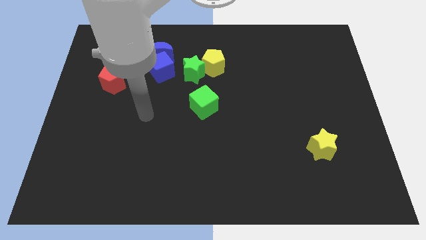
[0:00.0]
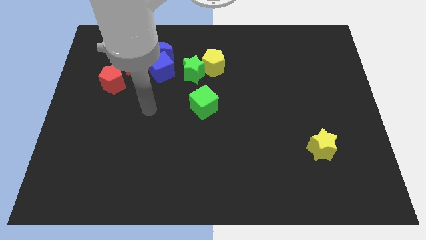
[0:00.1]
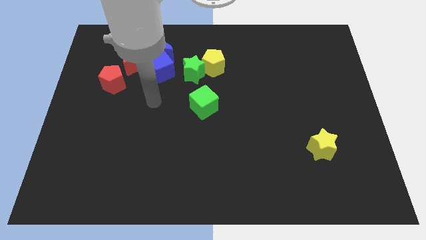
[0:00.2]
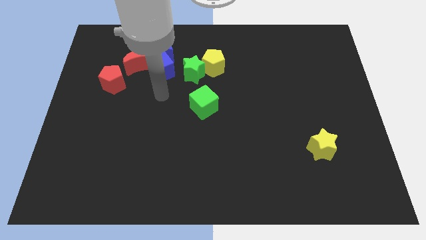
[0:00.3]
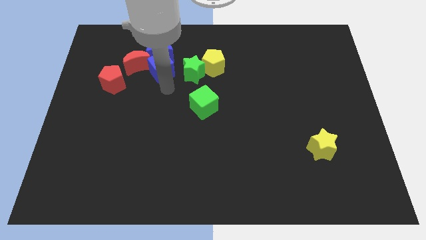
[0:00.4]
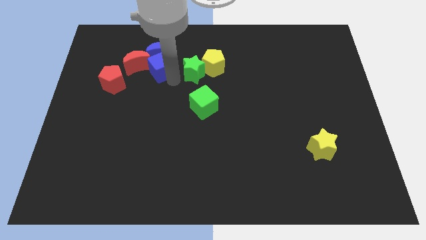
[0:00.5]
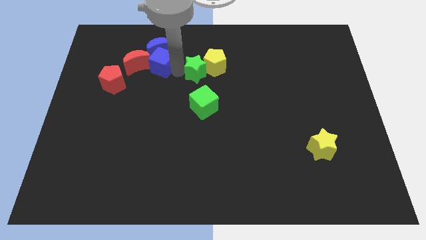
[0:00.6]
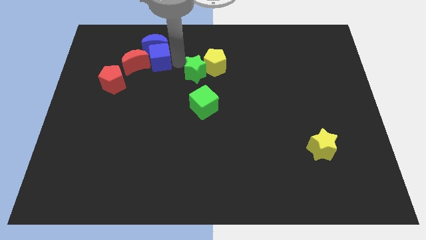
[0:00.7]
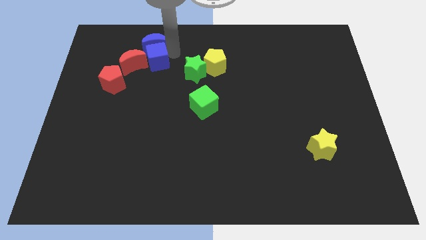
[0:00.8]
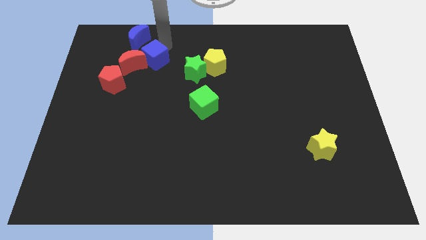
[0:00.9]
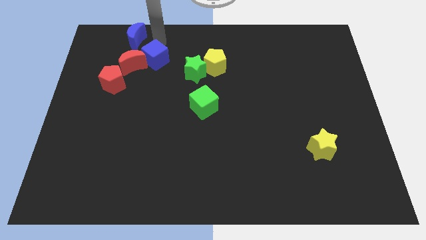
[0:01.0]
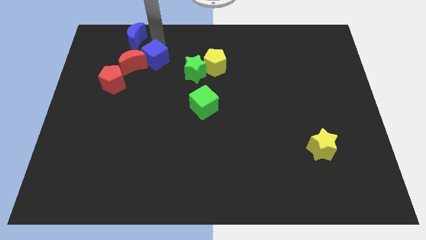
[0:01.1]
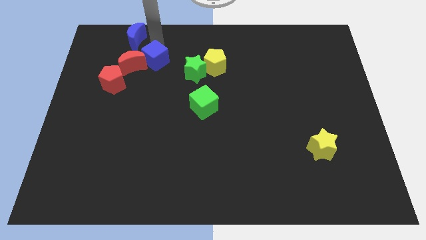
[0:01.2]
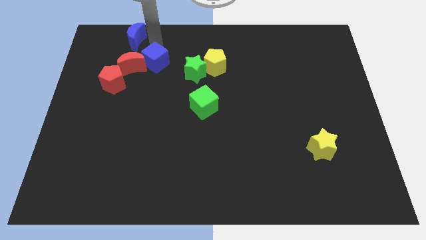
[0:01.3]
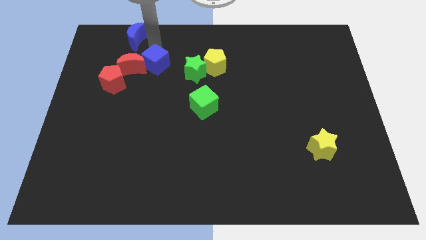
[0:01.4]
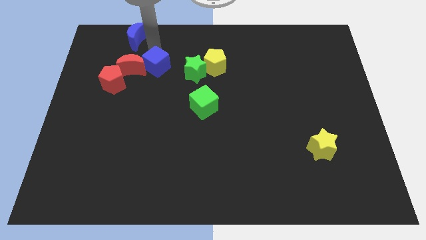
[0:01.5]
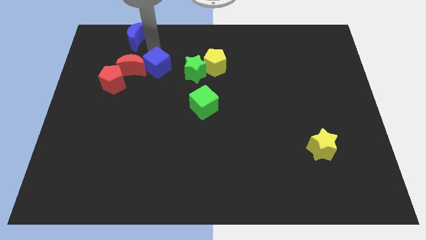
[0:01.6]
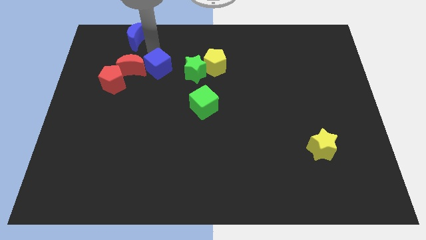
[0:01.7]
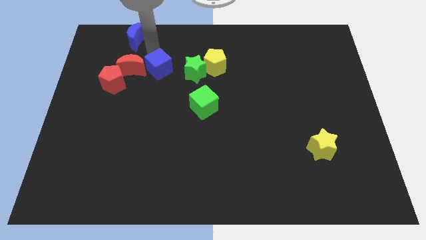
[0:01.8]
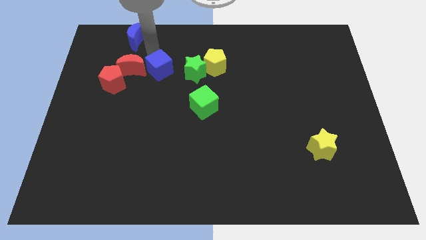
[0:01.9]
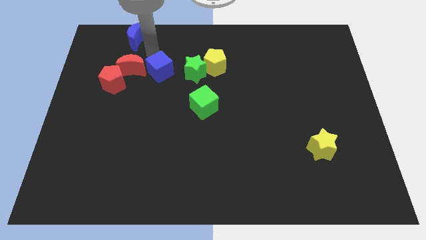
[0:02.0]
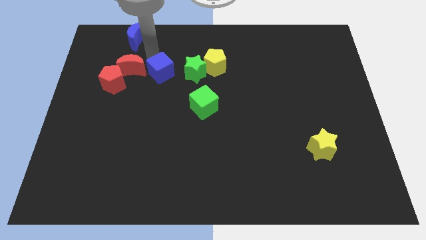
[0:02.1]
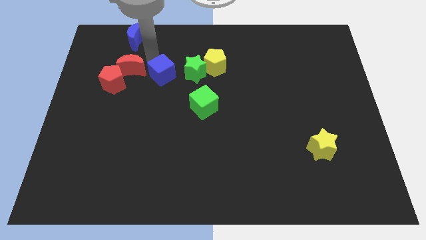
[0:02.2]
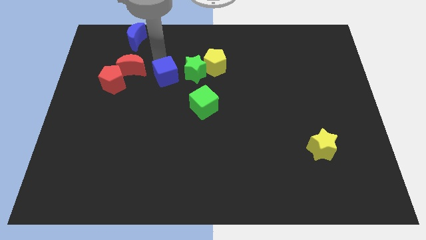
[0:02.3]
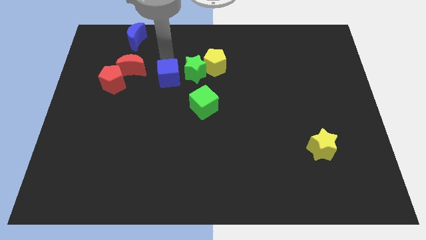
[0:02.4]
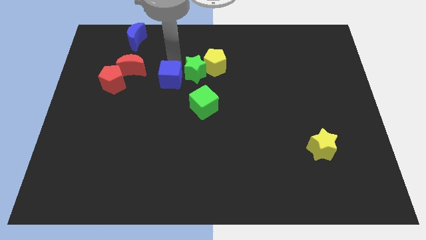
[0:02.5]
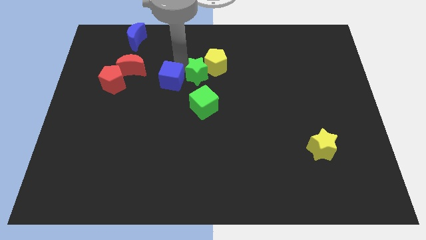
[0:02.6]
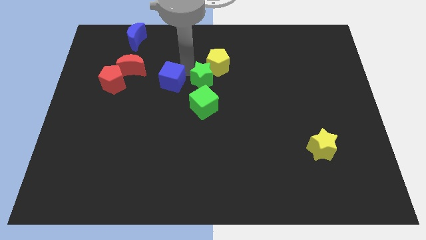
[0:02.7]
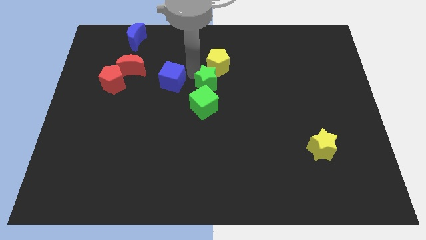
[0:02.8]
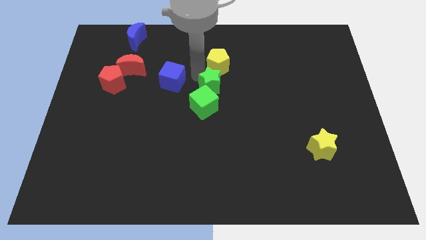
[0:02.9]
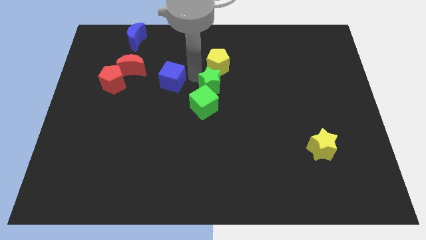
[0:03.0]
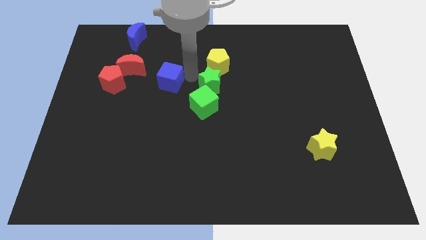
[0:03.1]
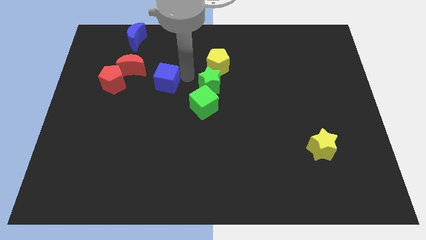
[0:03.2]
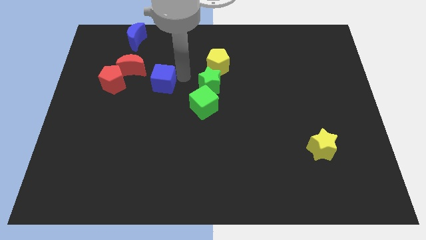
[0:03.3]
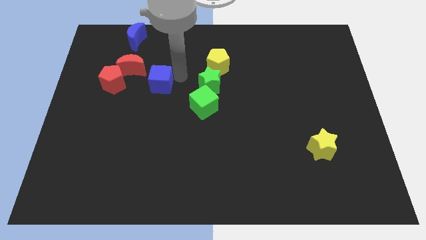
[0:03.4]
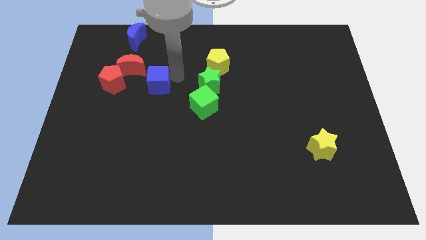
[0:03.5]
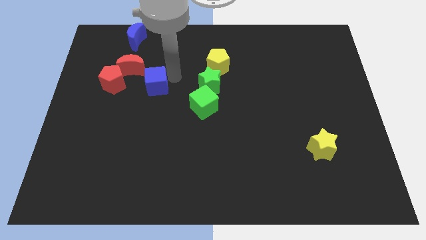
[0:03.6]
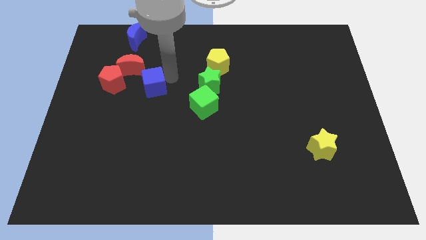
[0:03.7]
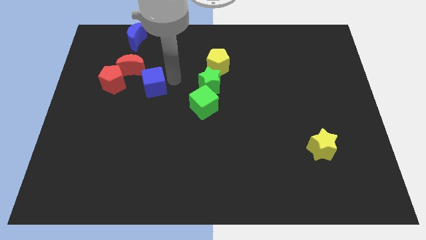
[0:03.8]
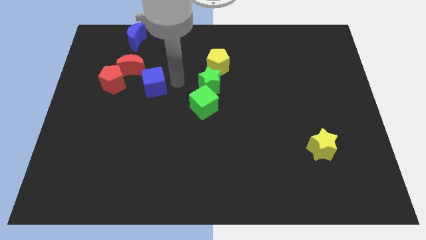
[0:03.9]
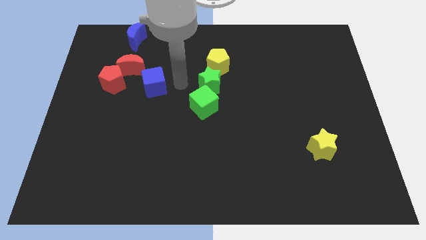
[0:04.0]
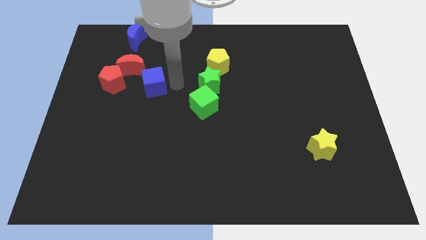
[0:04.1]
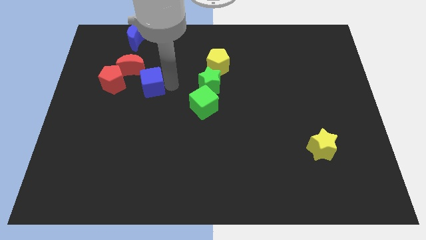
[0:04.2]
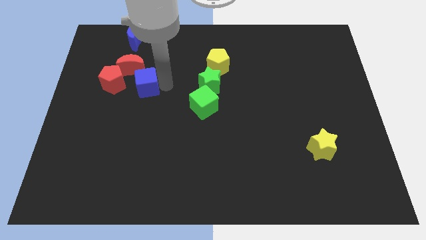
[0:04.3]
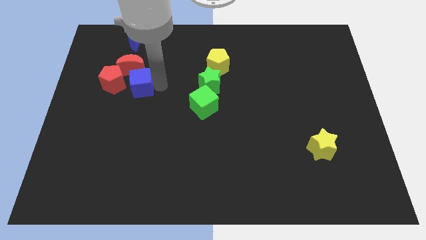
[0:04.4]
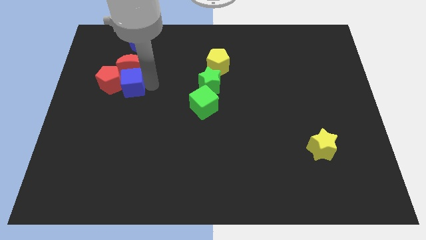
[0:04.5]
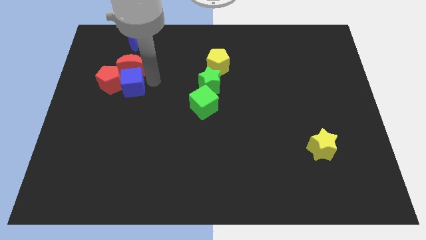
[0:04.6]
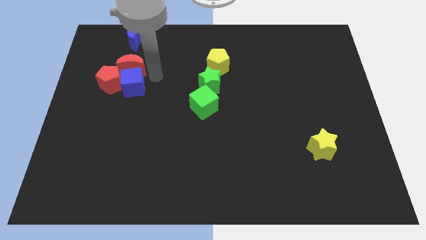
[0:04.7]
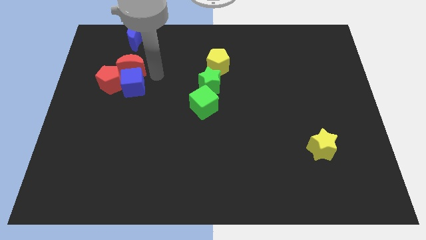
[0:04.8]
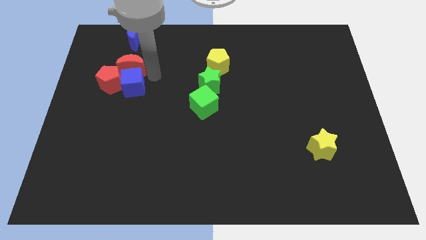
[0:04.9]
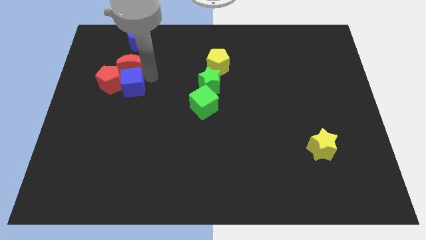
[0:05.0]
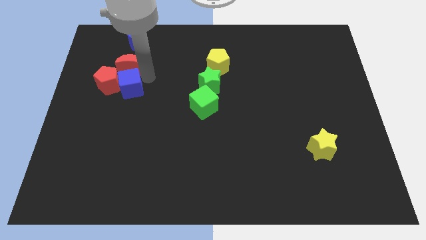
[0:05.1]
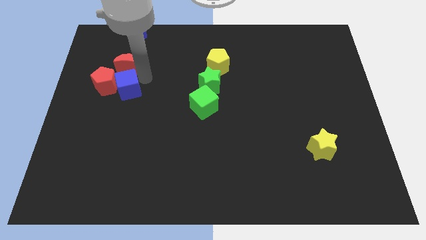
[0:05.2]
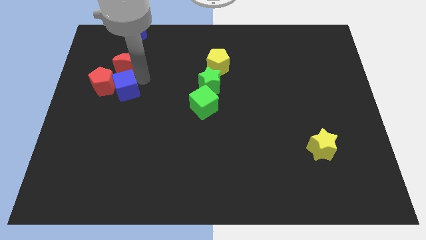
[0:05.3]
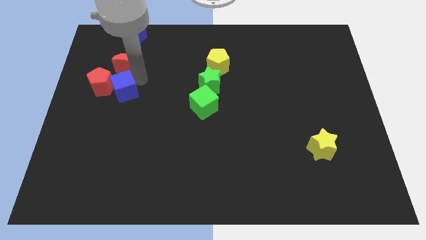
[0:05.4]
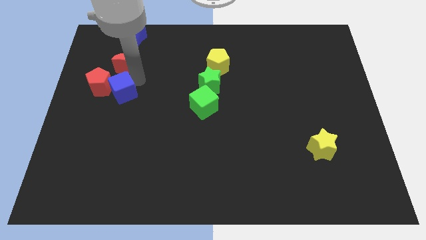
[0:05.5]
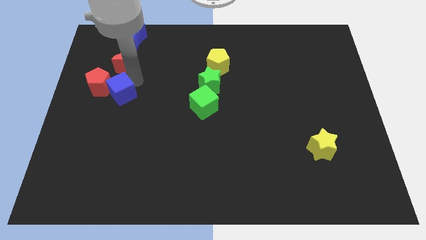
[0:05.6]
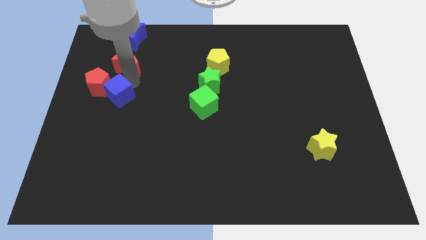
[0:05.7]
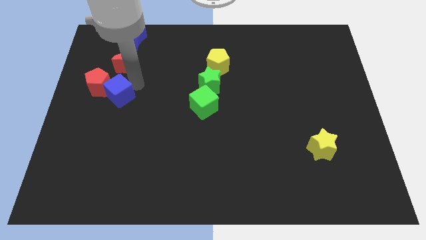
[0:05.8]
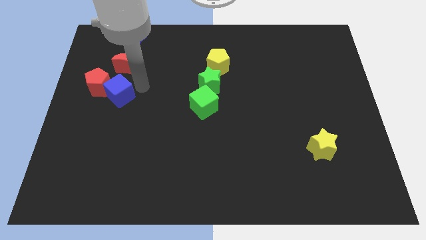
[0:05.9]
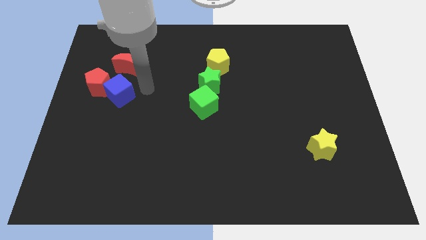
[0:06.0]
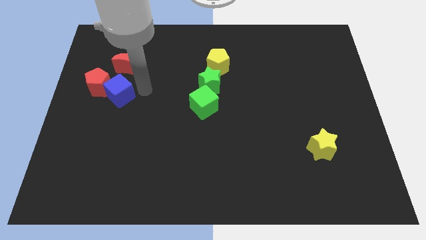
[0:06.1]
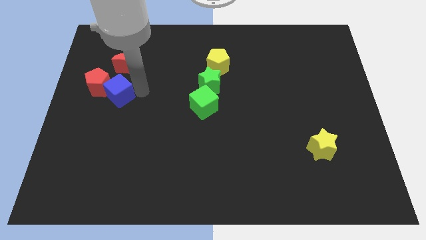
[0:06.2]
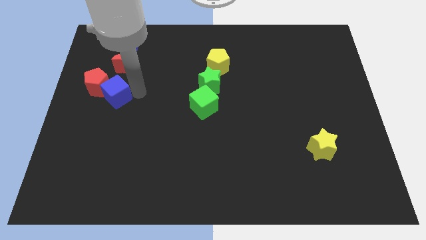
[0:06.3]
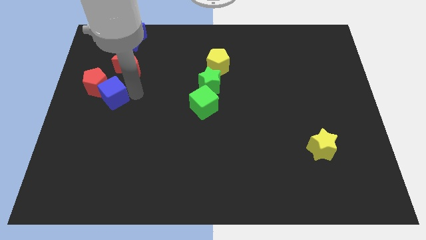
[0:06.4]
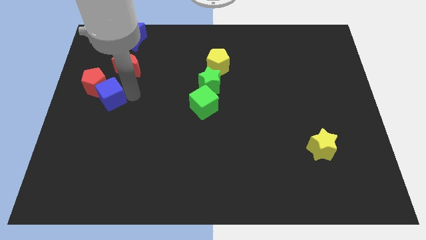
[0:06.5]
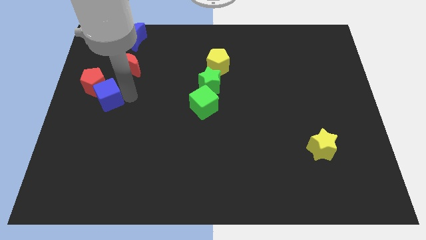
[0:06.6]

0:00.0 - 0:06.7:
put the blue cube to the center left
